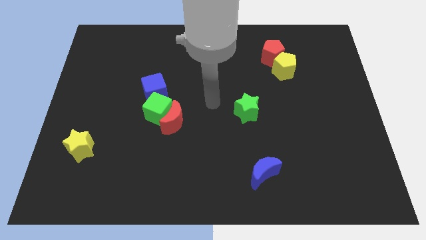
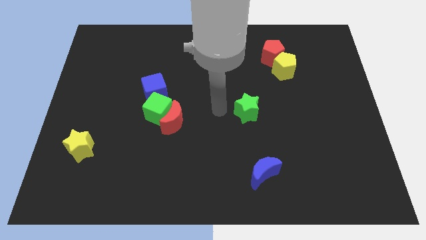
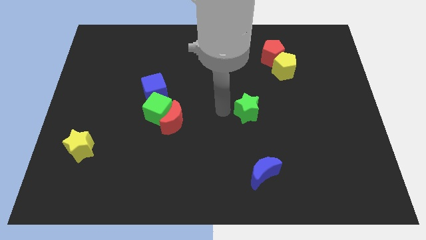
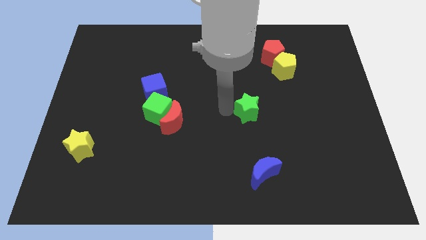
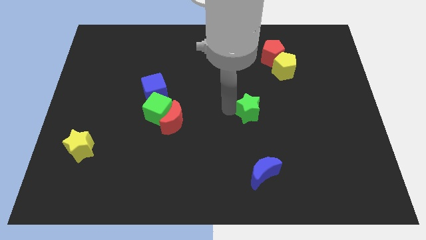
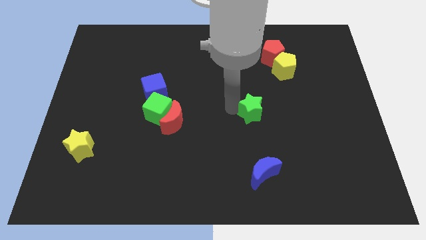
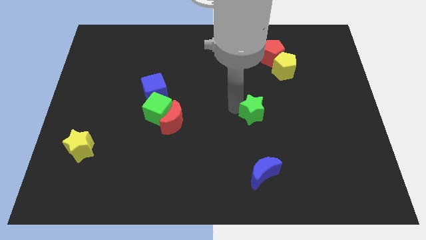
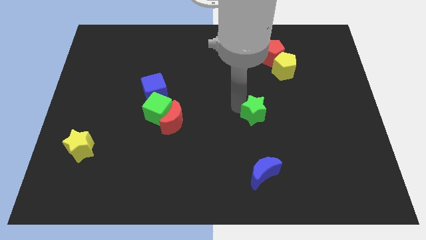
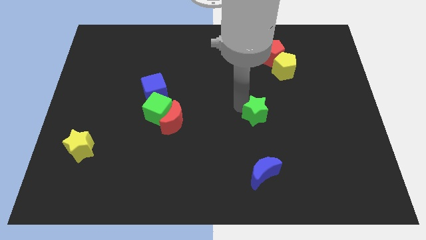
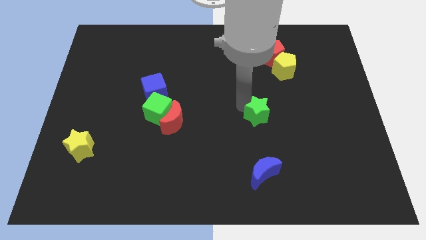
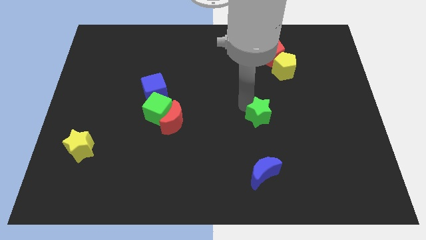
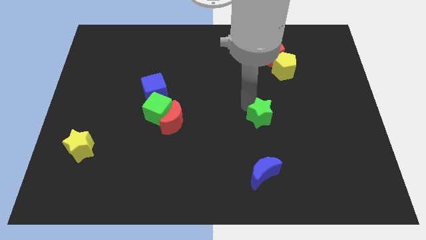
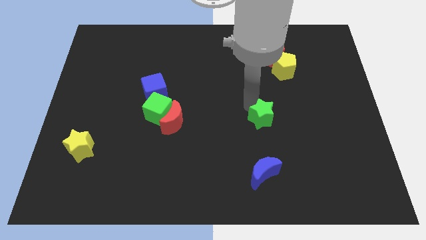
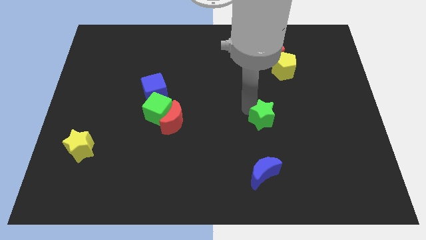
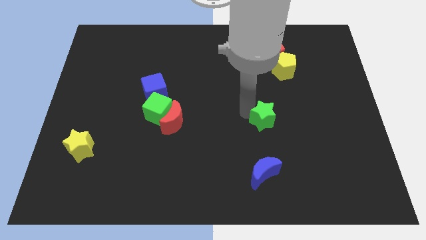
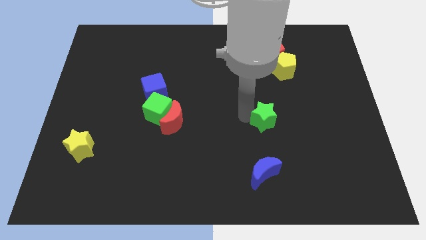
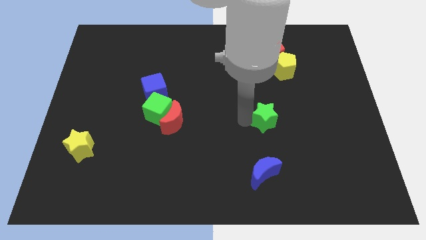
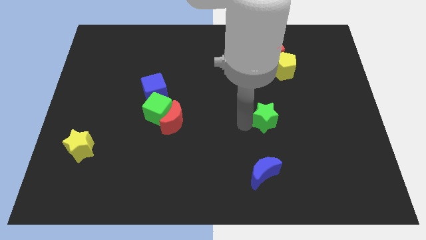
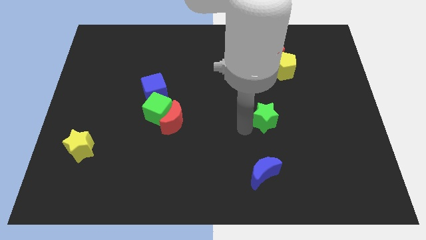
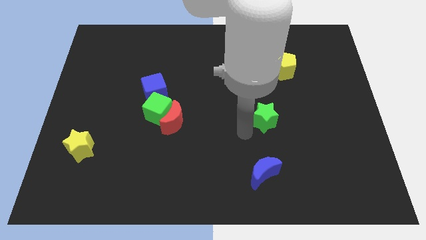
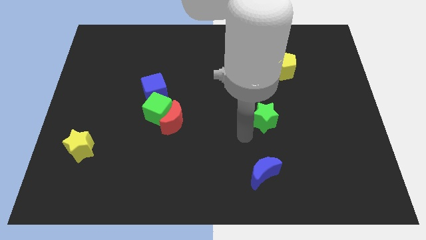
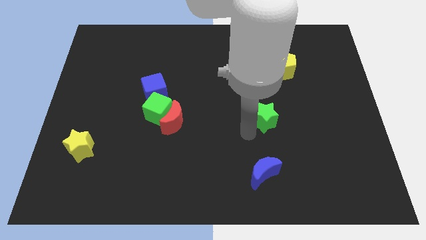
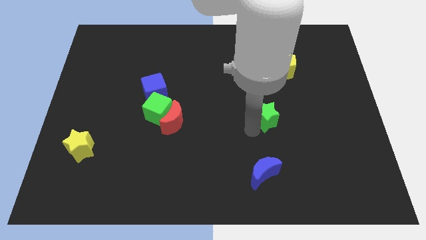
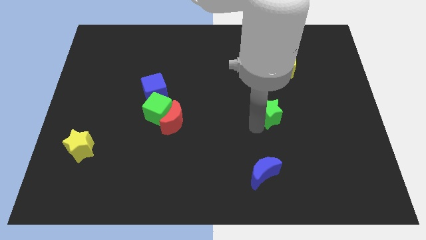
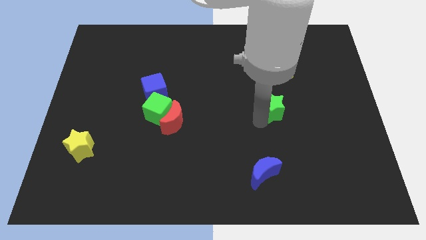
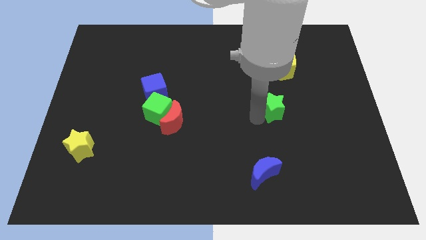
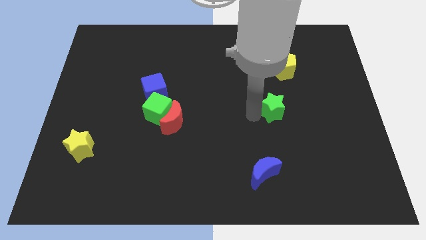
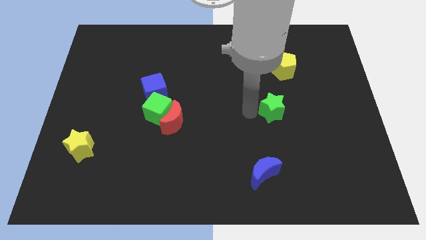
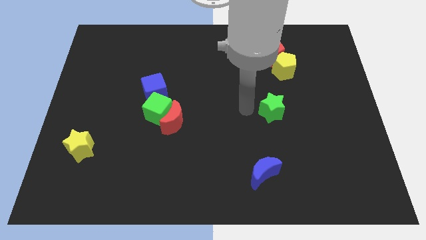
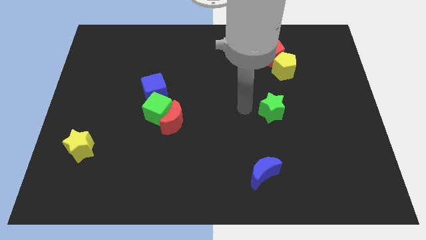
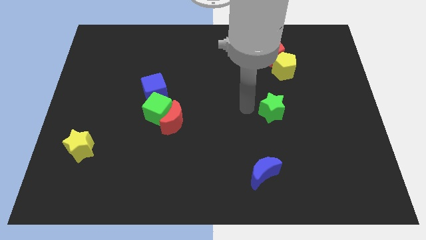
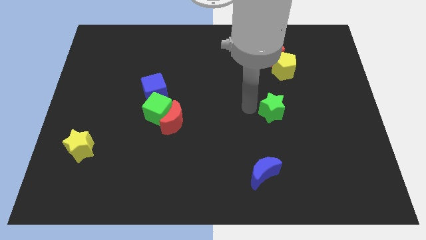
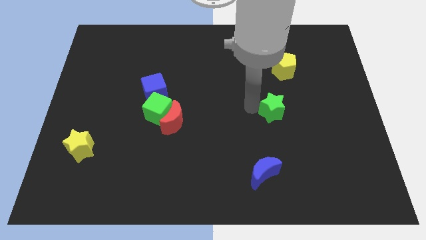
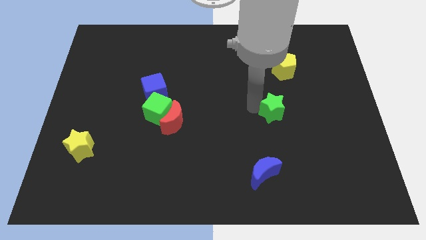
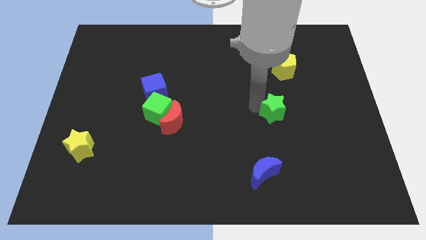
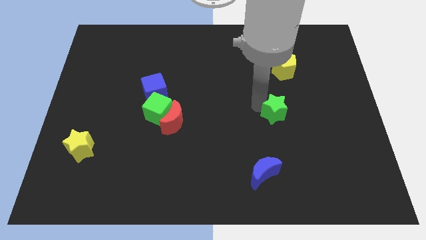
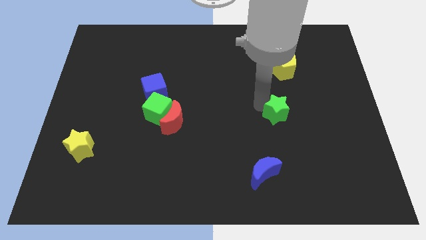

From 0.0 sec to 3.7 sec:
slightly push the green star to the right

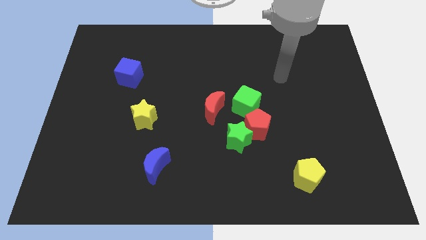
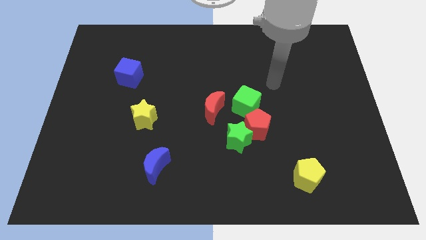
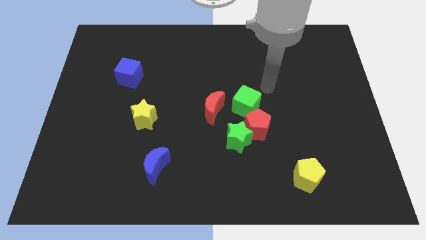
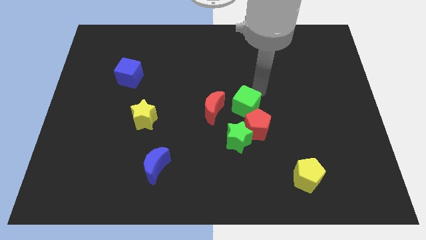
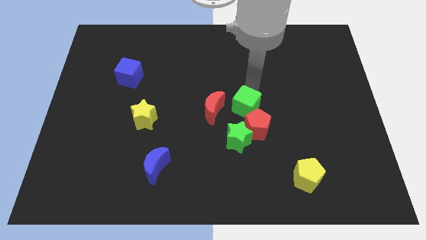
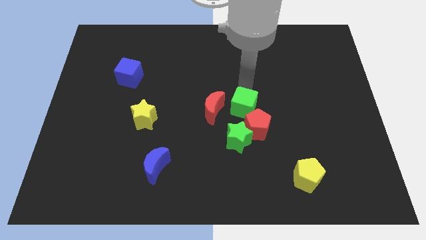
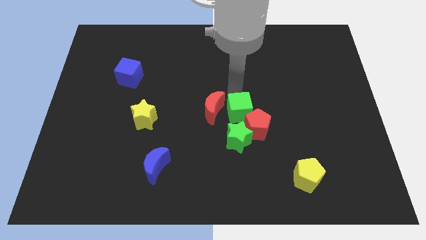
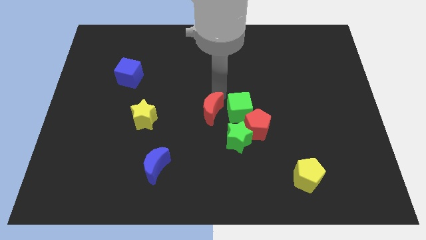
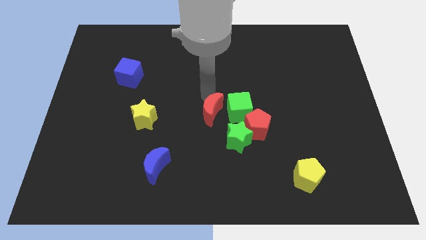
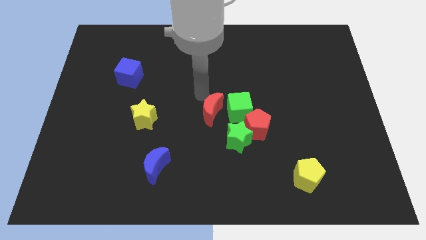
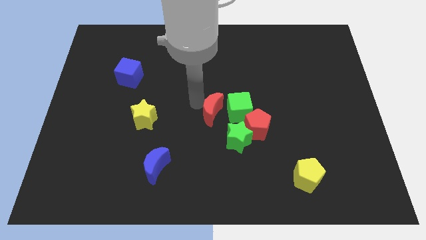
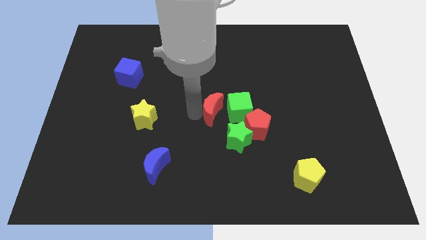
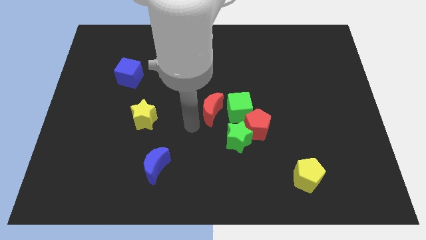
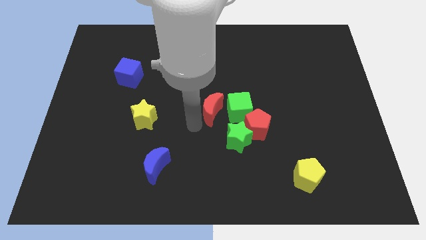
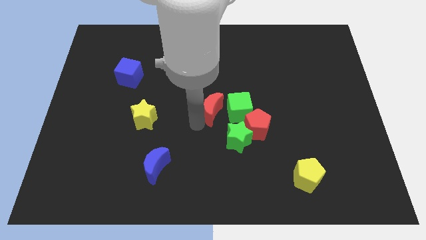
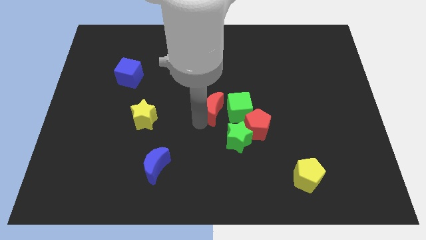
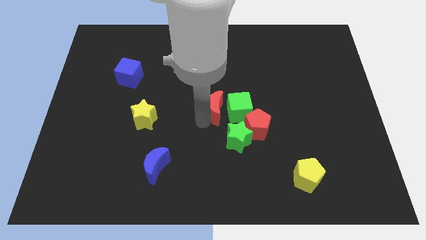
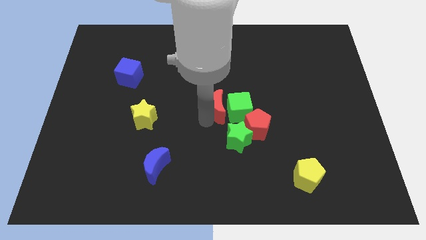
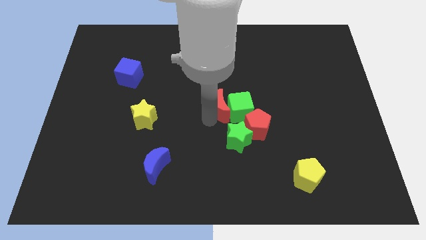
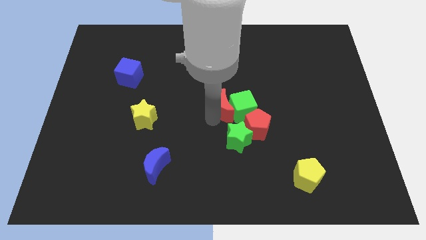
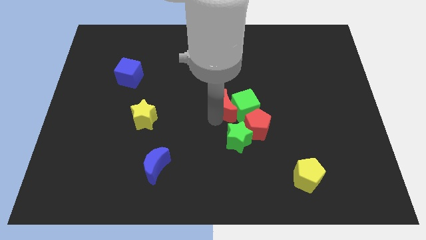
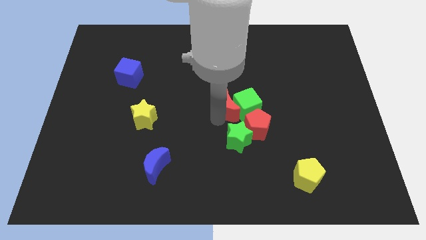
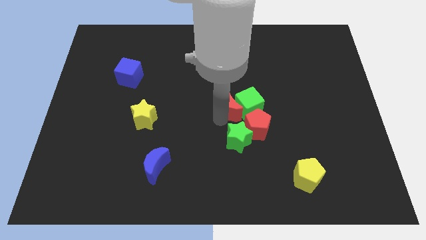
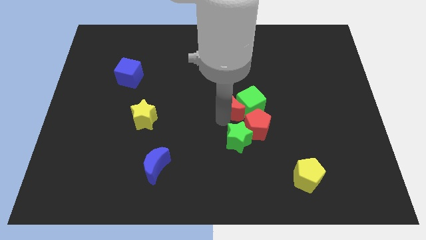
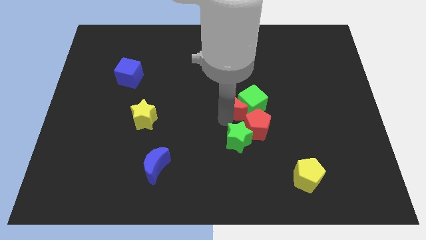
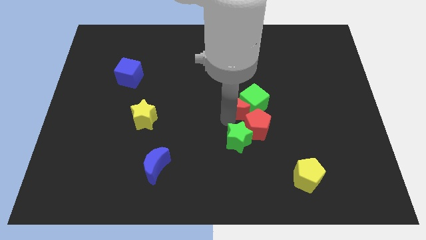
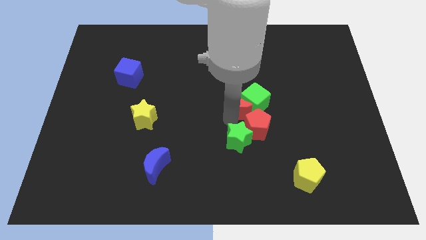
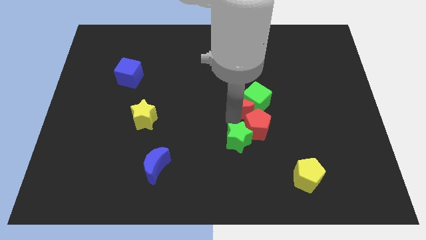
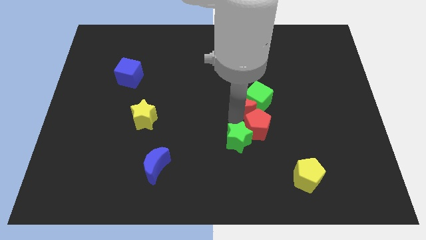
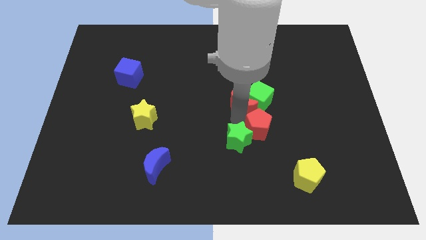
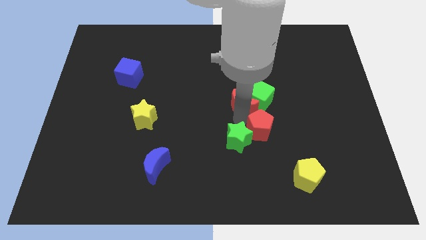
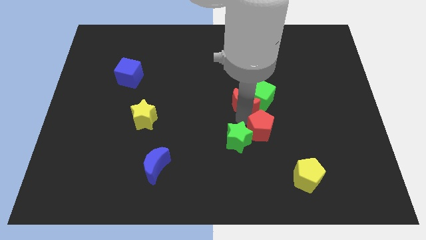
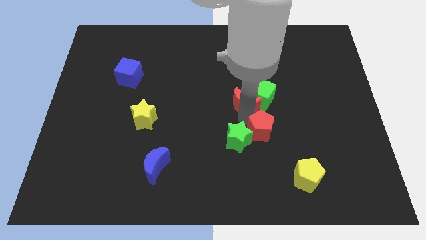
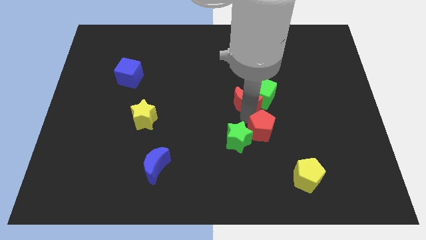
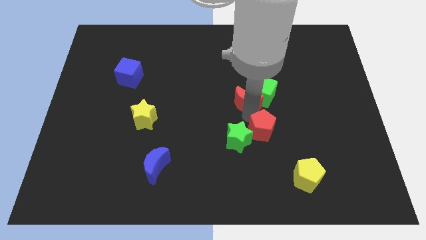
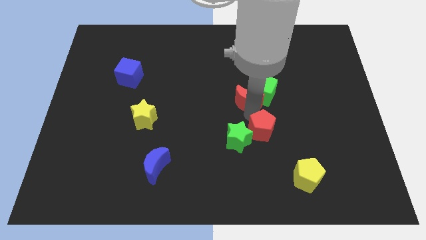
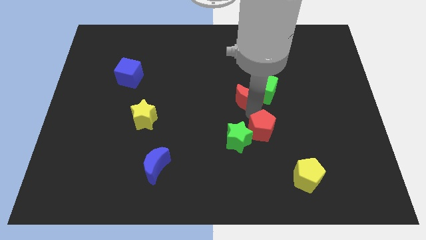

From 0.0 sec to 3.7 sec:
slightly move the red moon up and to the right

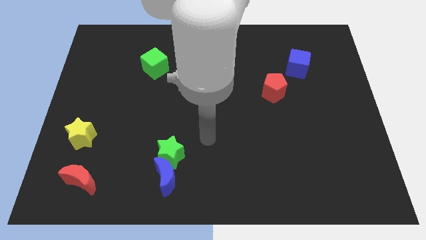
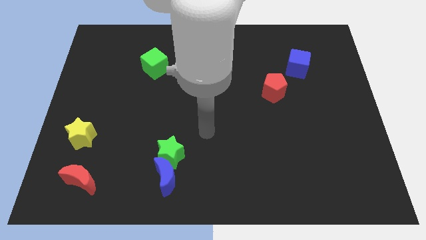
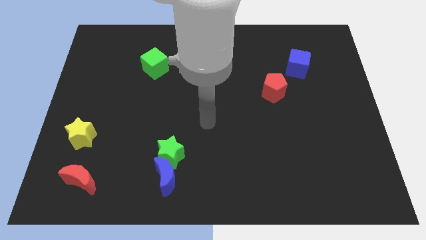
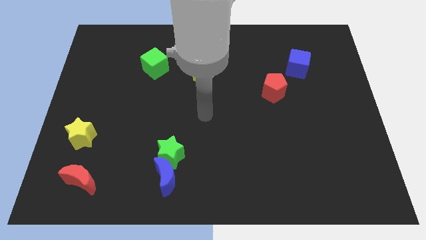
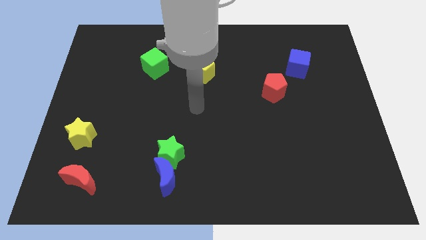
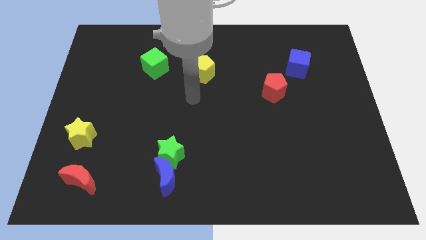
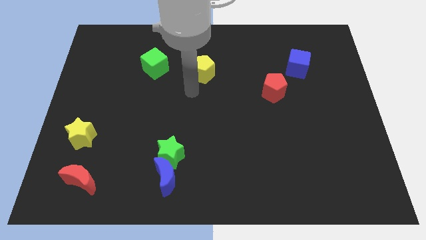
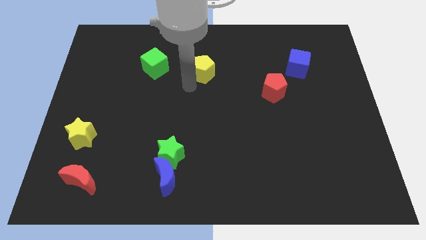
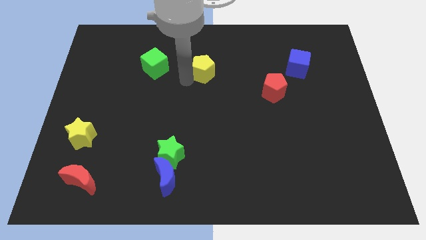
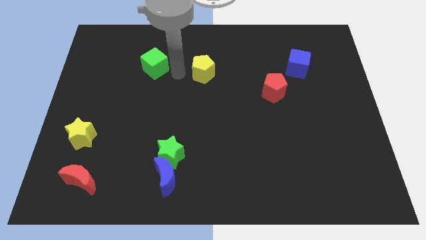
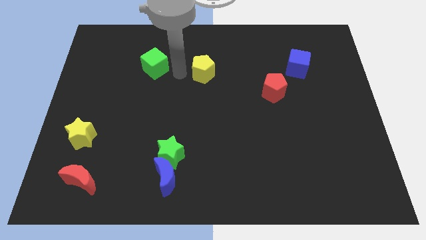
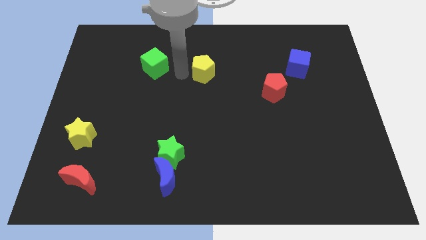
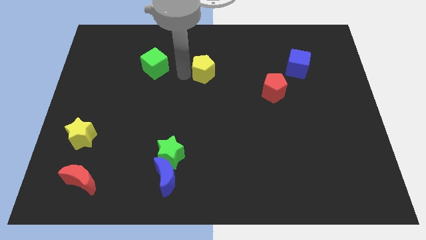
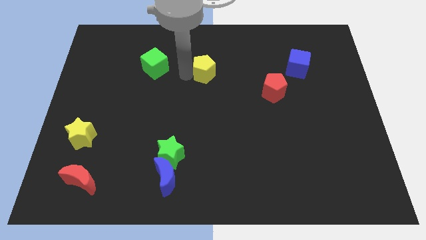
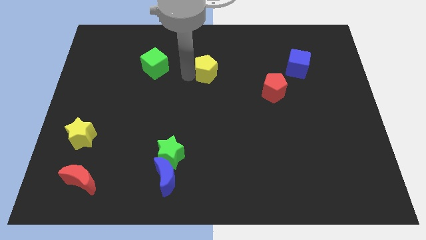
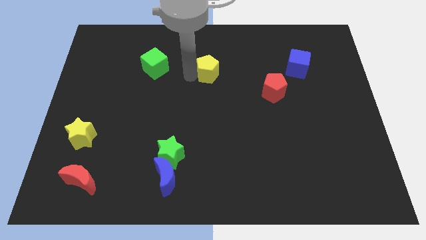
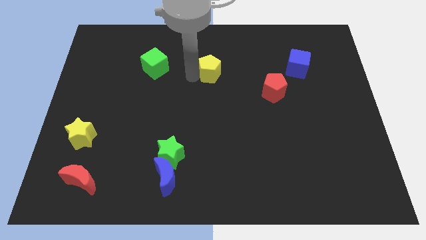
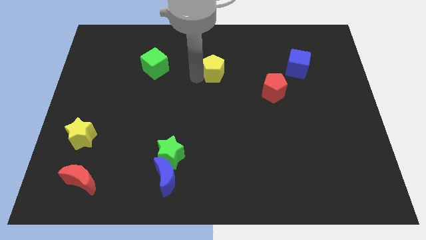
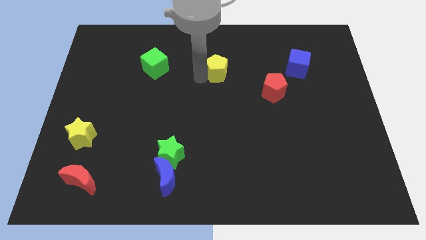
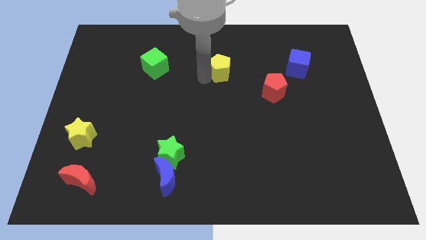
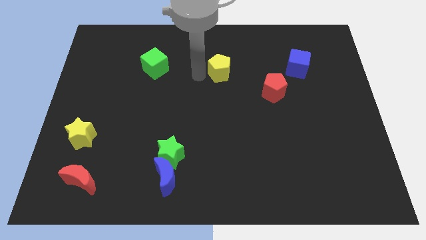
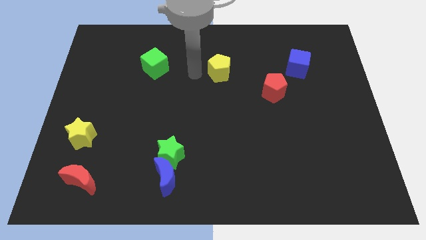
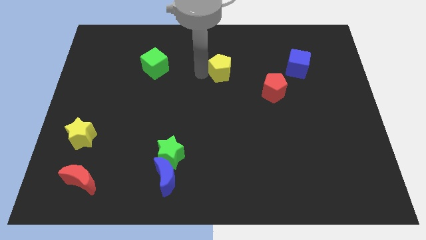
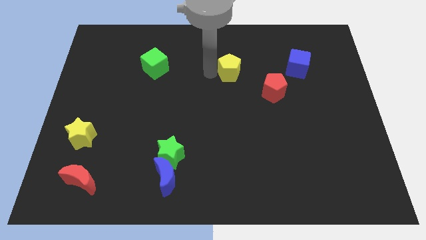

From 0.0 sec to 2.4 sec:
slightly slide the yellow pentagon to the right
